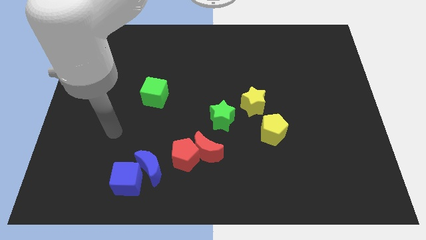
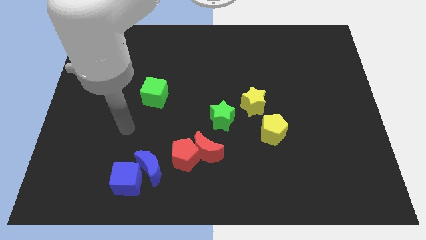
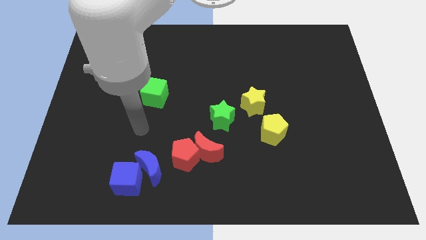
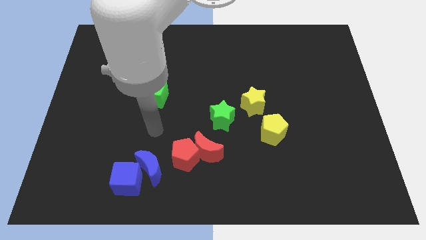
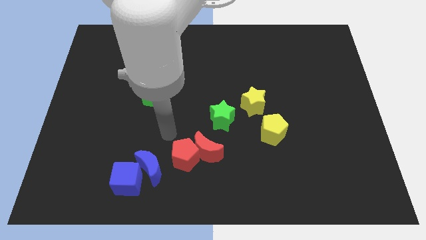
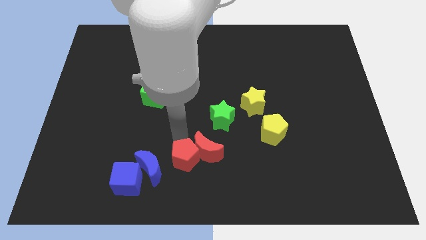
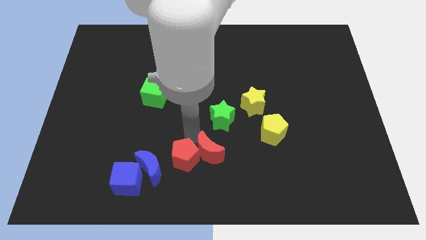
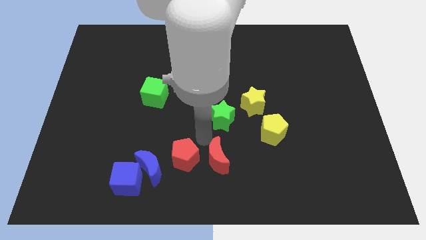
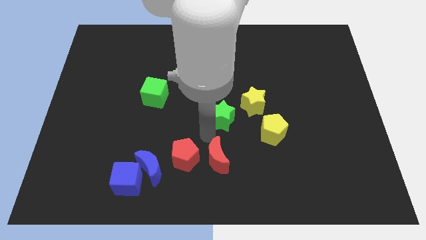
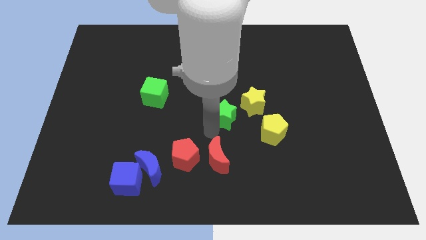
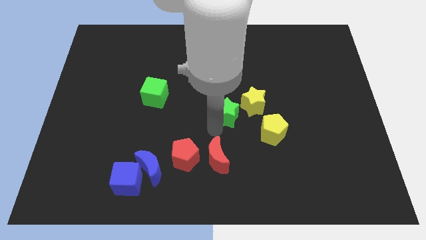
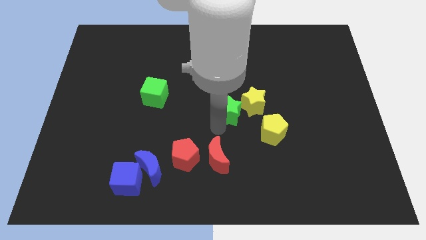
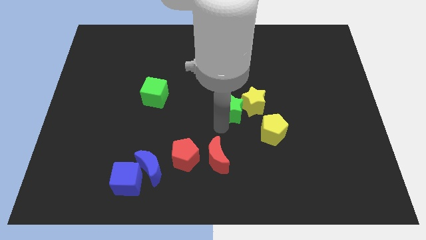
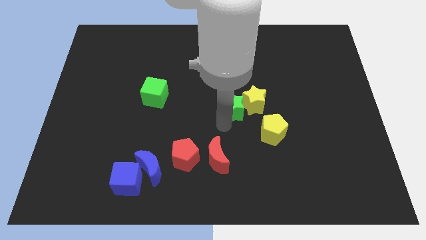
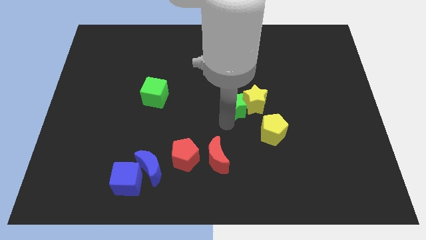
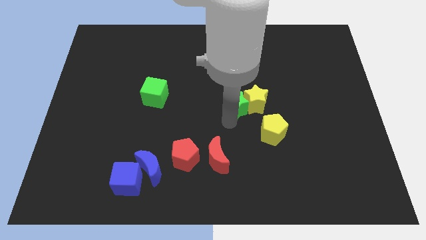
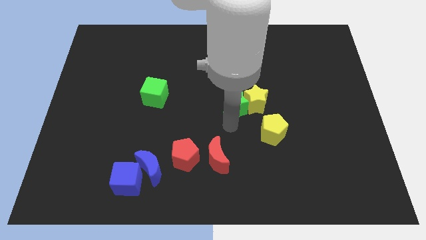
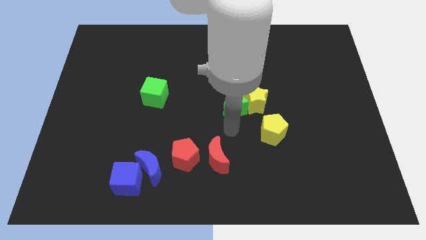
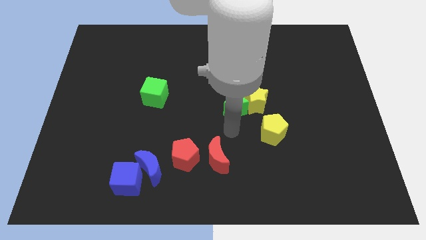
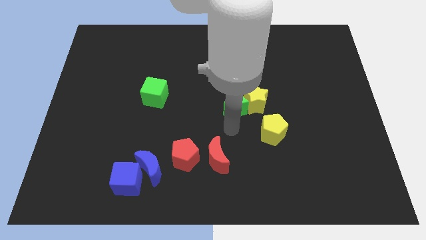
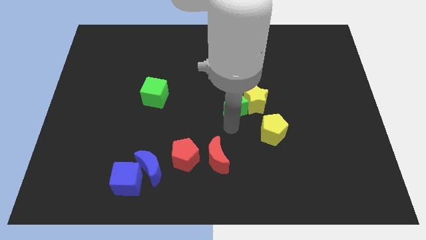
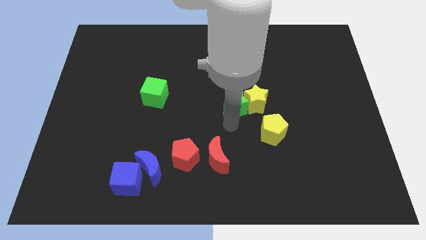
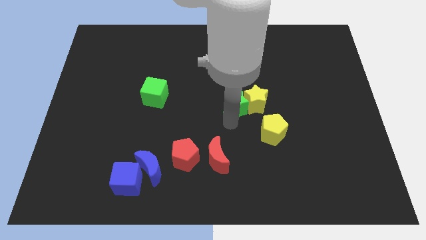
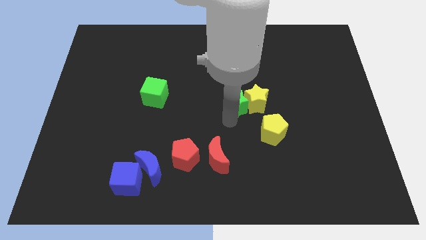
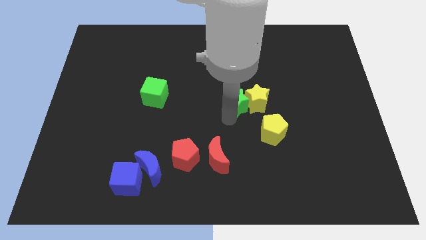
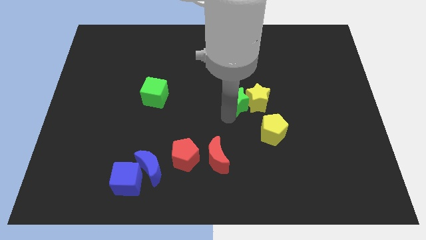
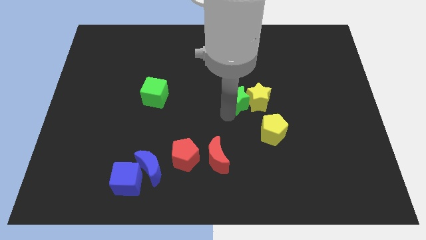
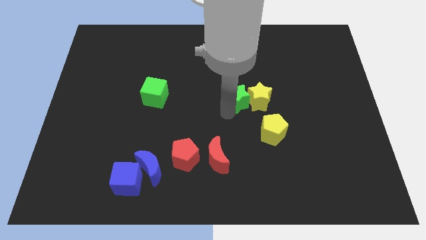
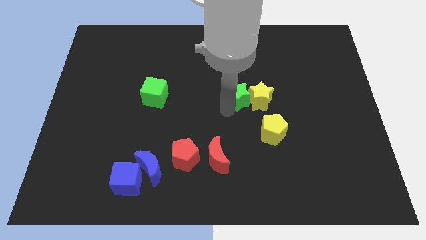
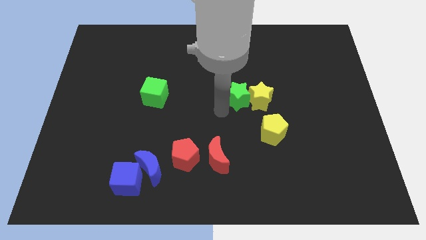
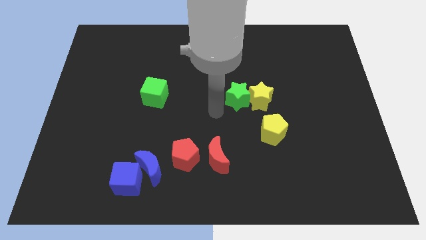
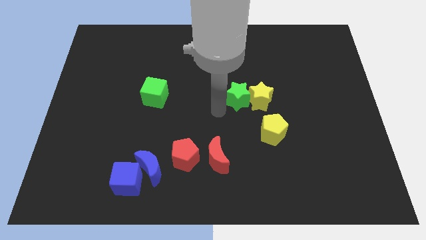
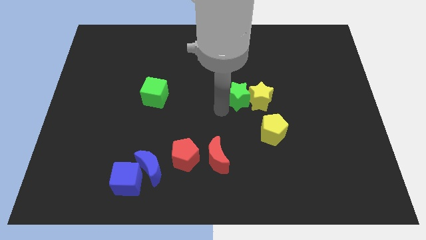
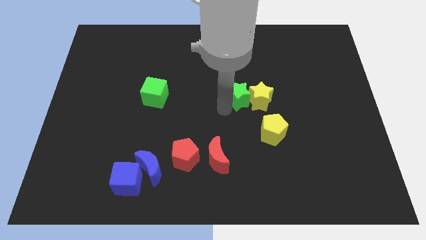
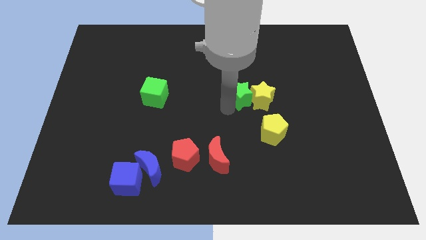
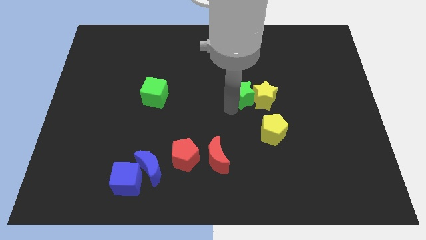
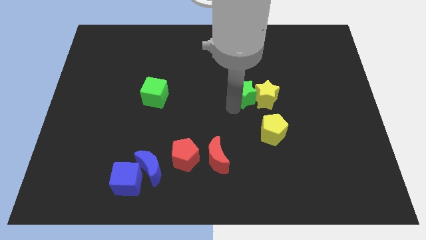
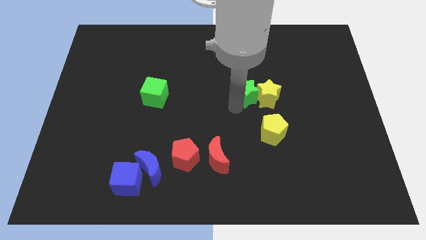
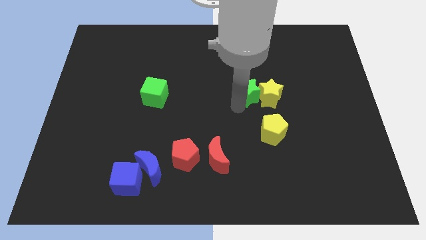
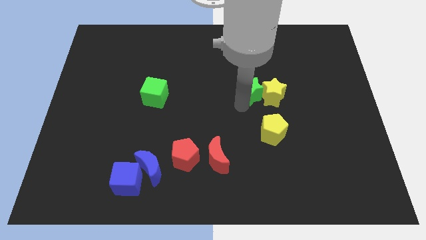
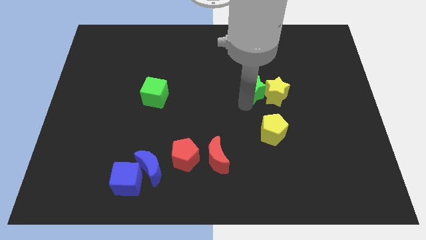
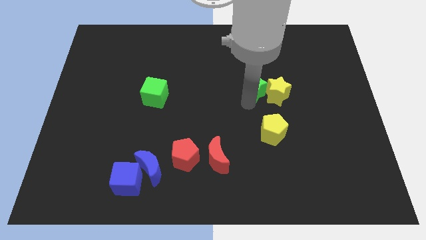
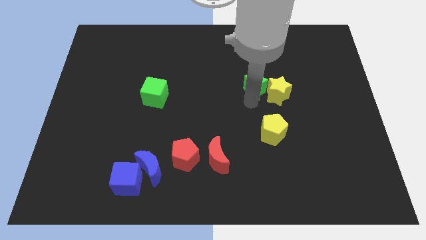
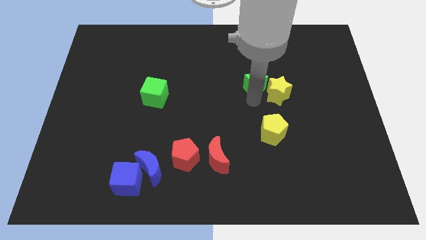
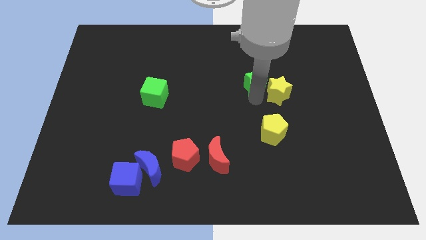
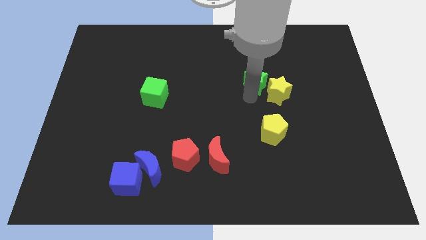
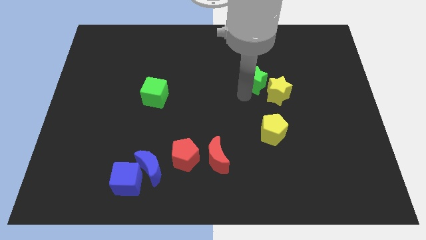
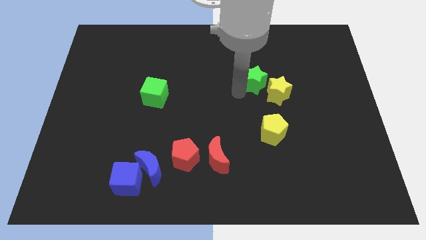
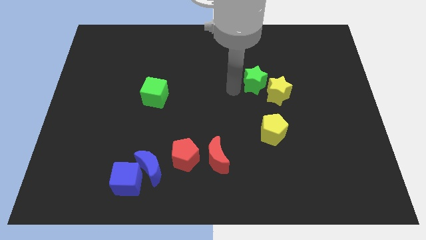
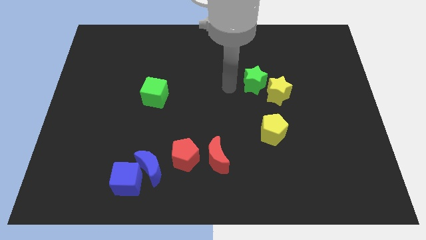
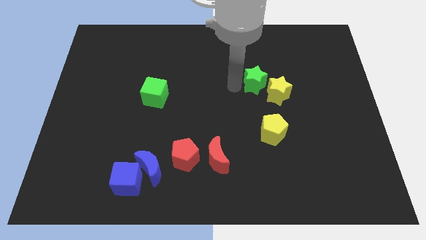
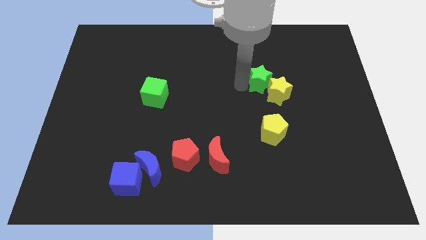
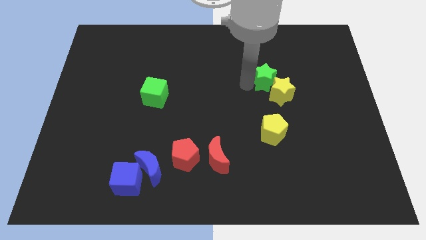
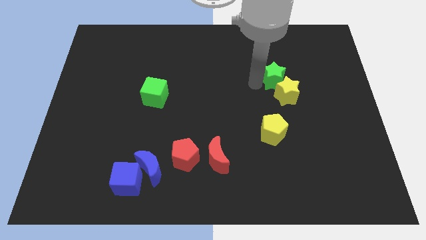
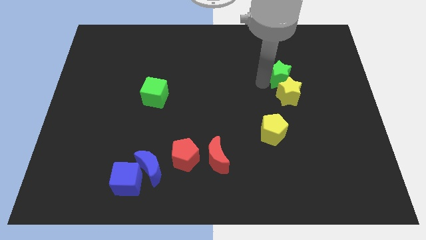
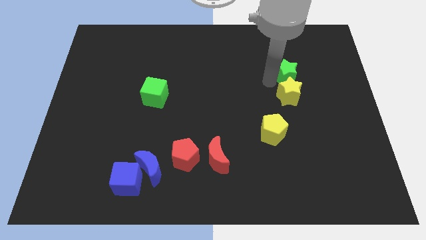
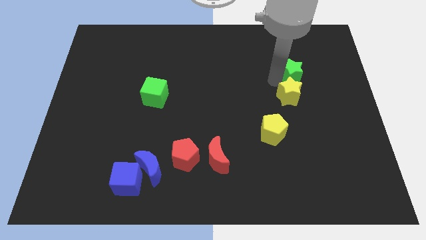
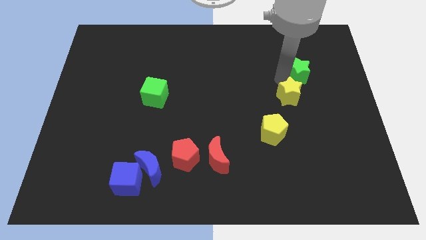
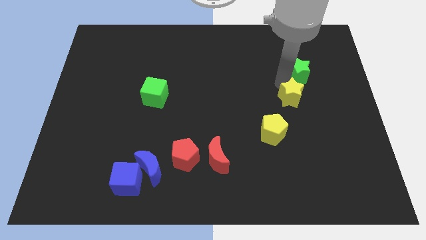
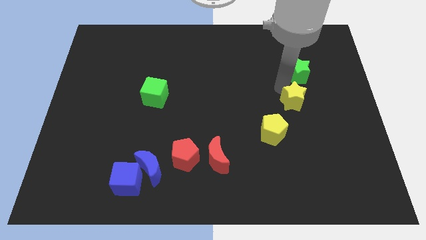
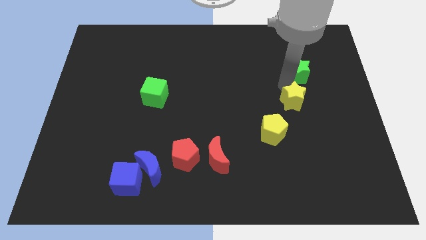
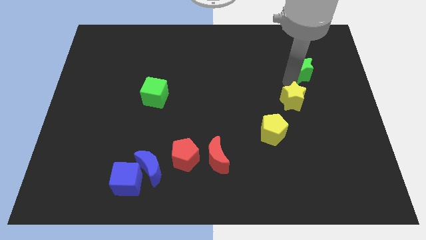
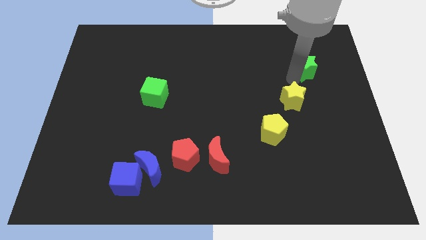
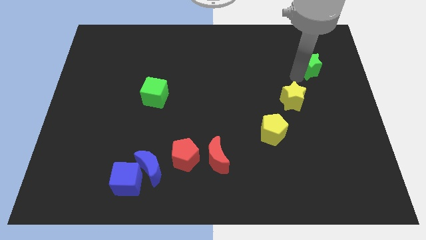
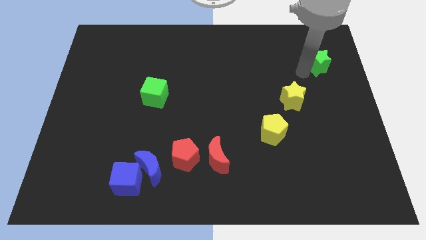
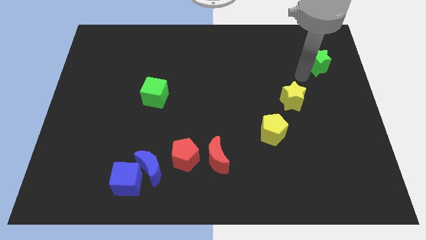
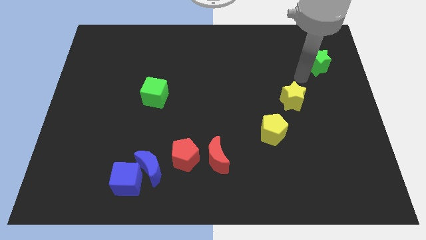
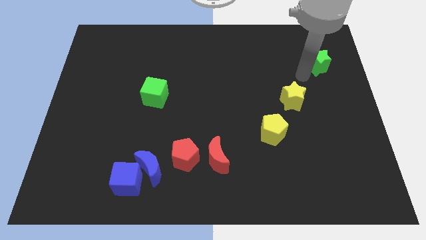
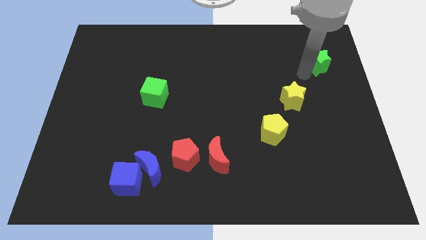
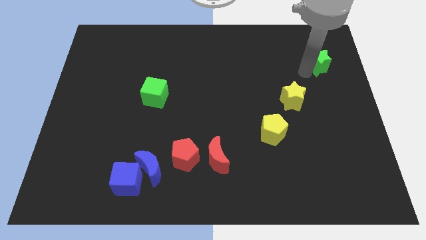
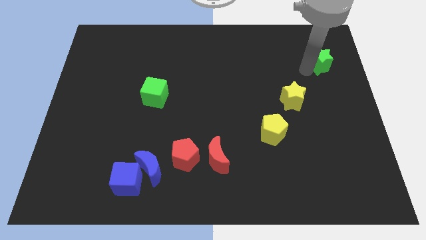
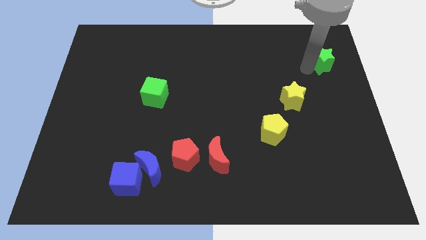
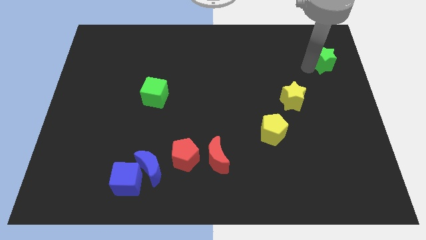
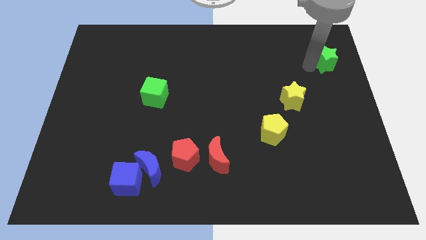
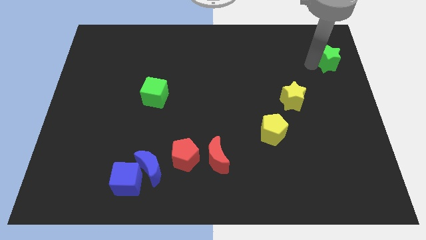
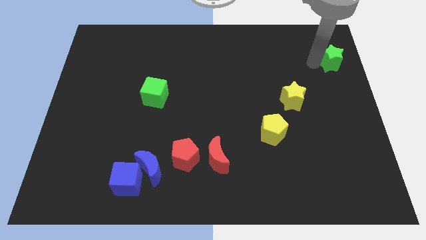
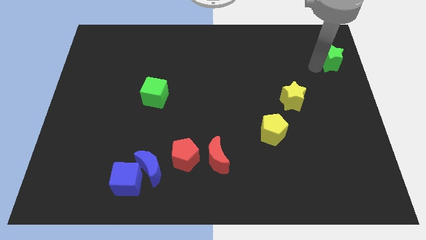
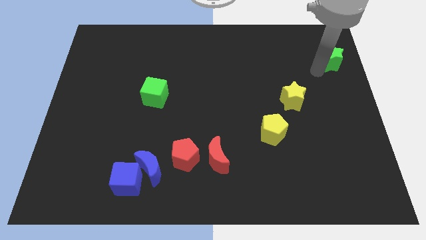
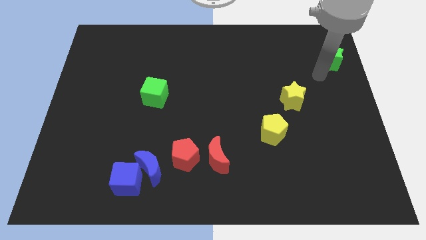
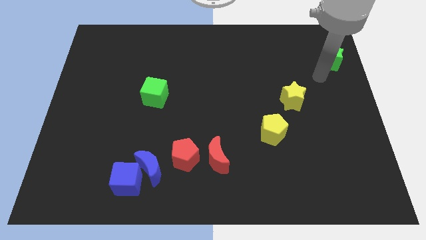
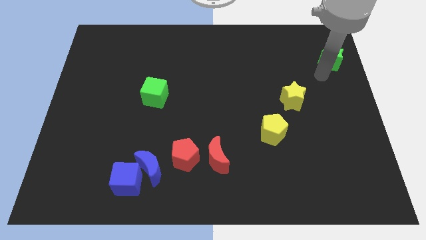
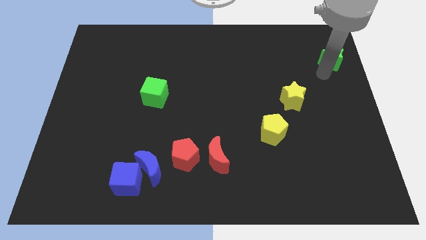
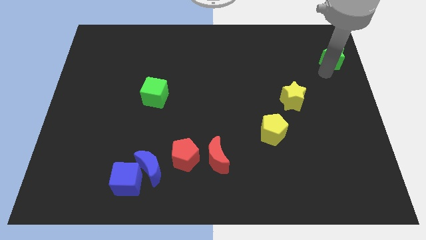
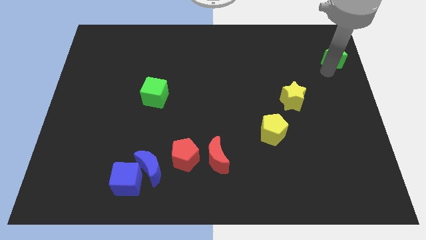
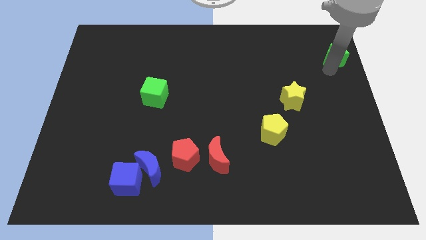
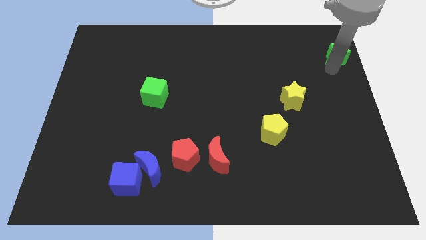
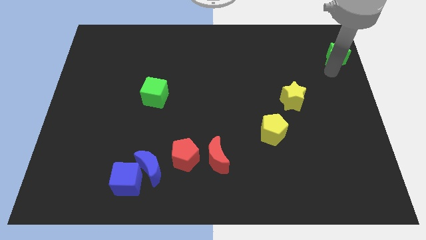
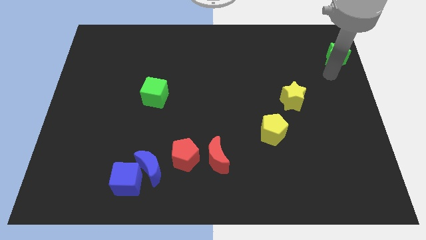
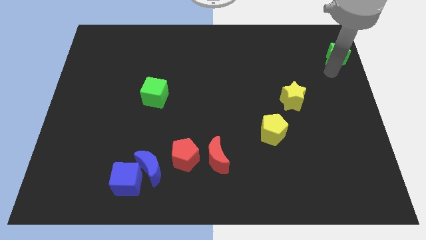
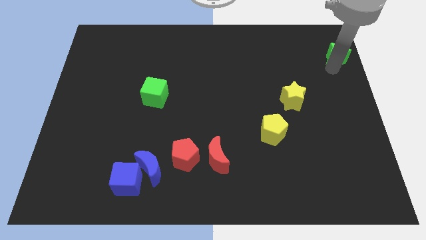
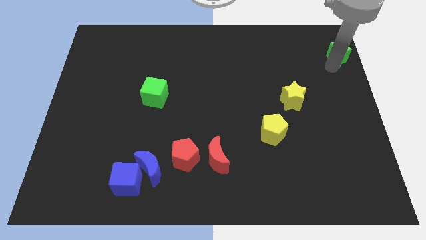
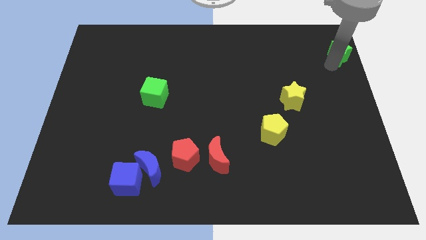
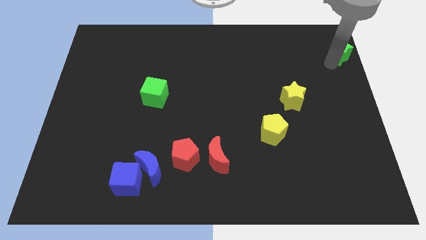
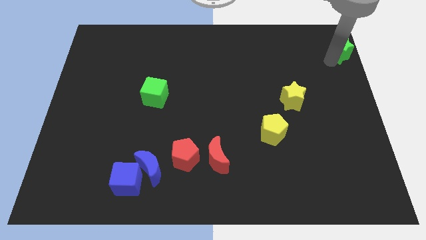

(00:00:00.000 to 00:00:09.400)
put the green star to the top right of the board
